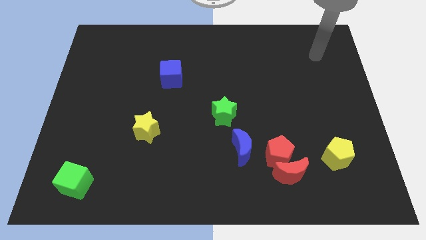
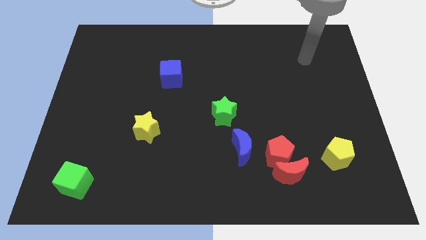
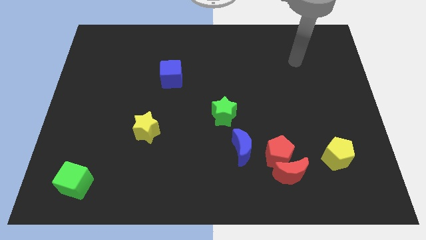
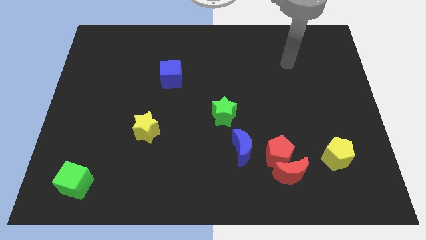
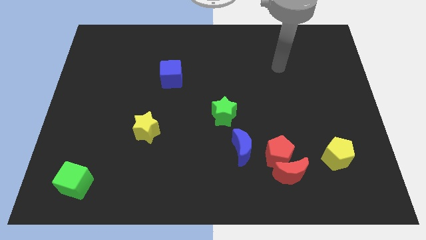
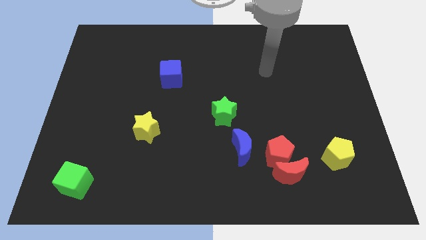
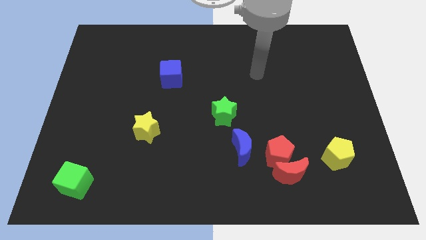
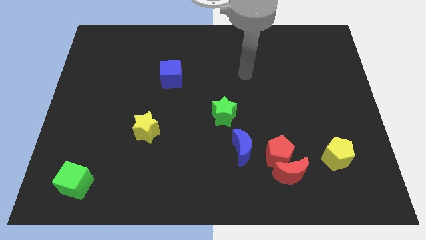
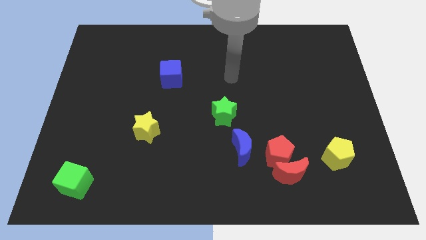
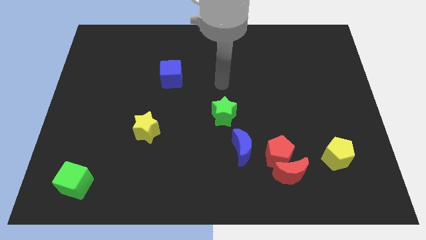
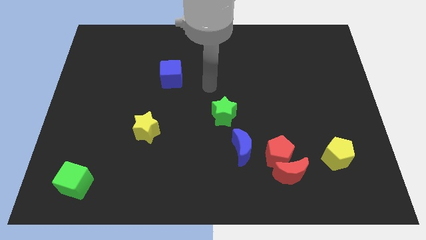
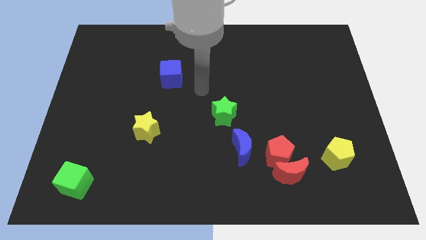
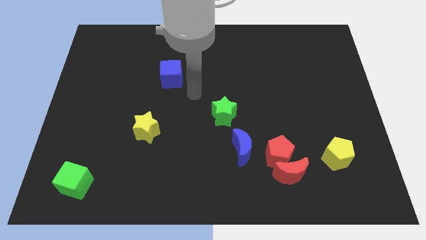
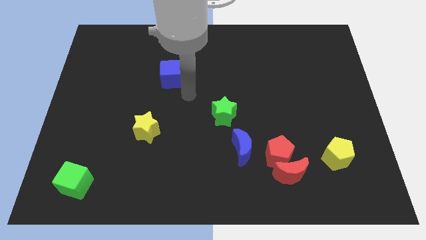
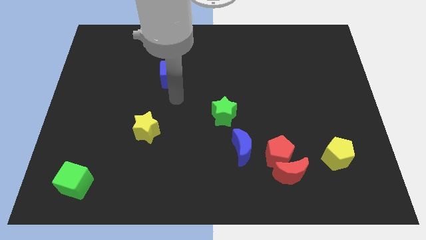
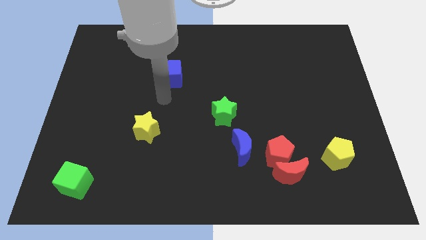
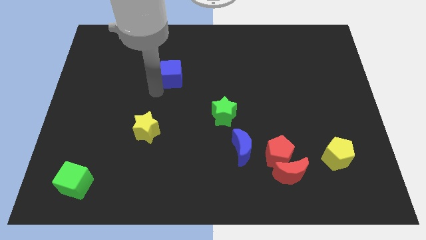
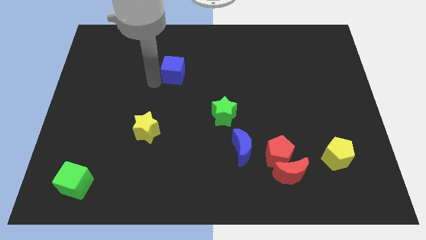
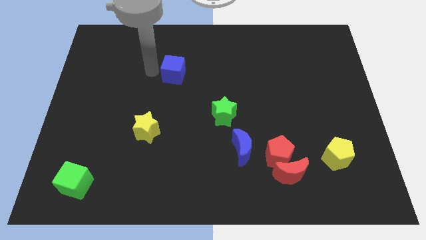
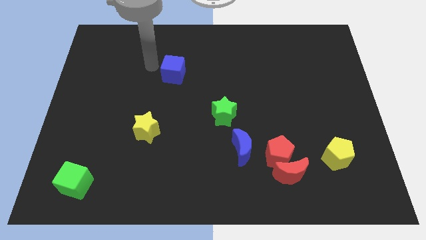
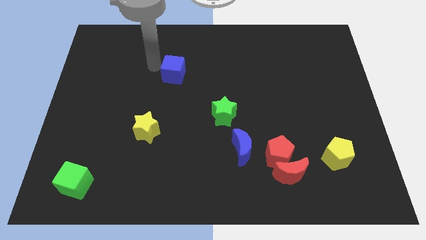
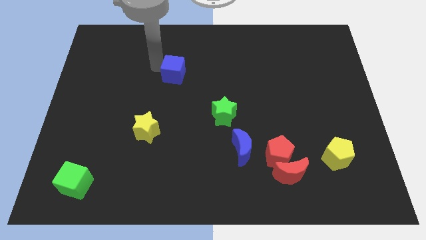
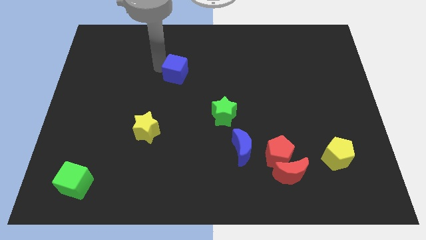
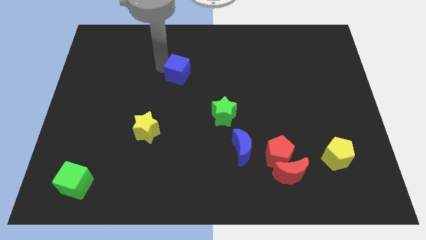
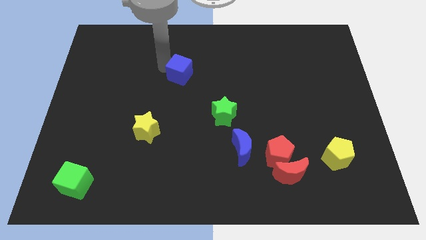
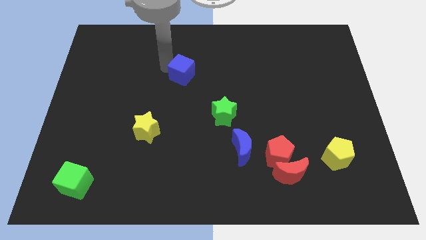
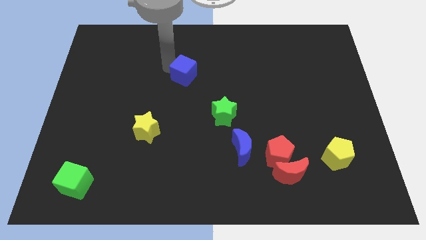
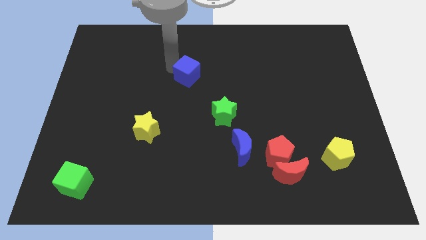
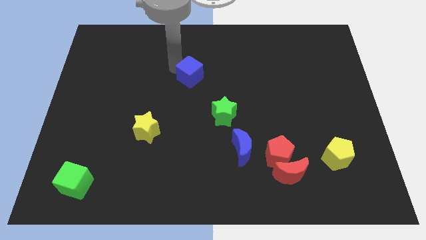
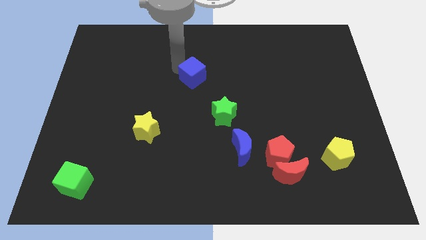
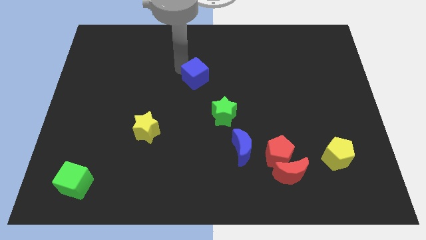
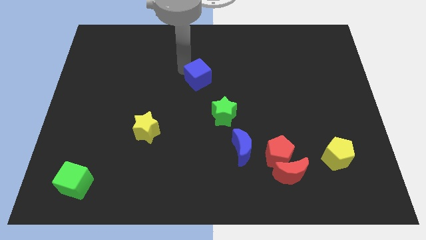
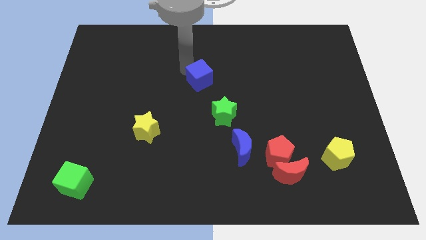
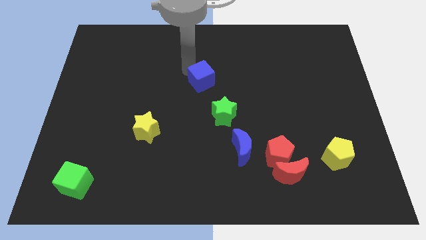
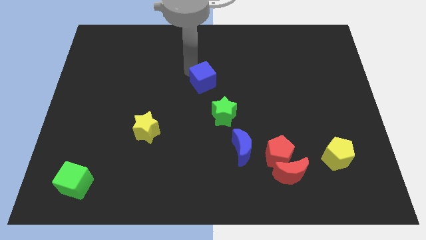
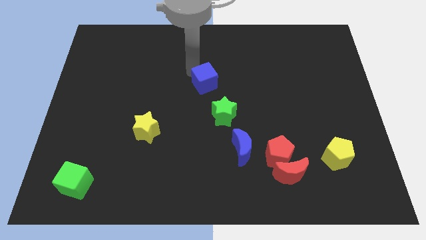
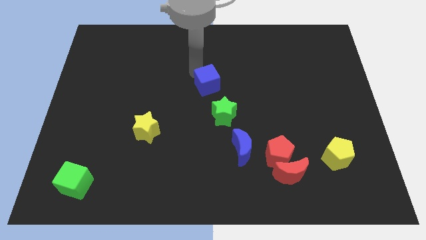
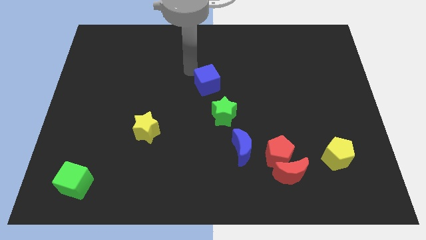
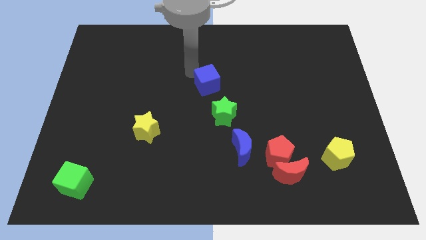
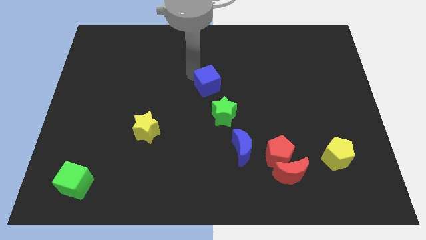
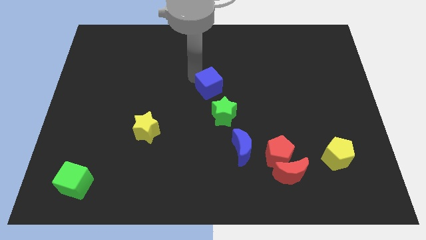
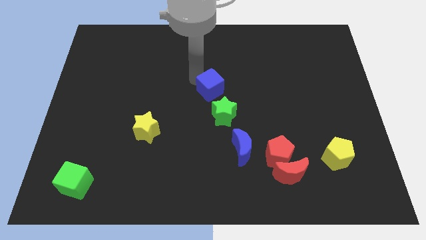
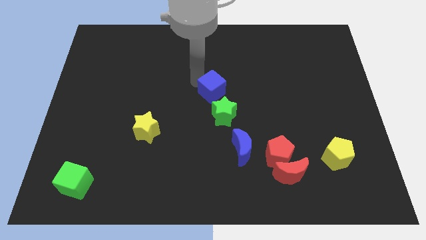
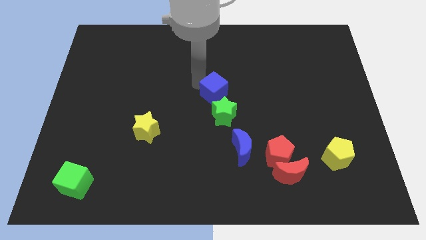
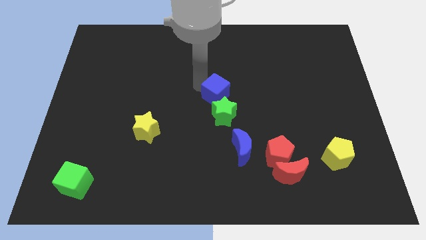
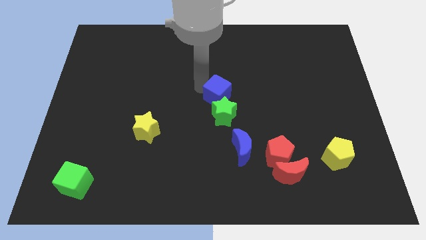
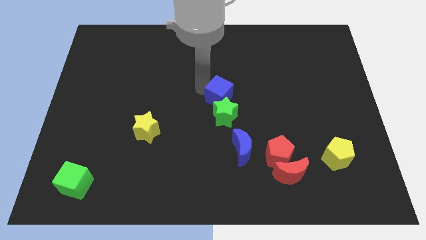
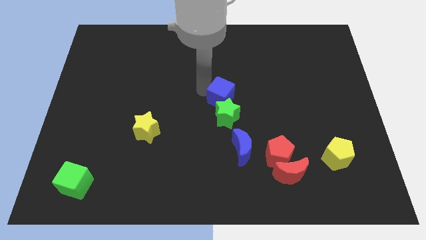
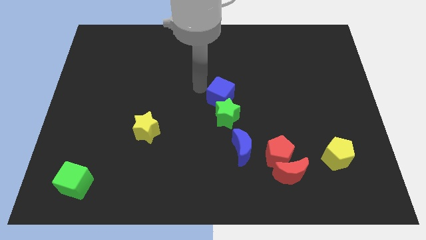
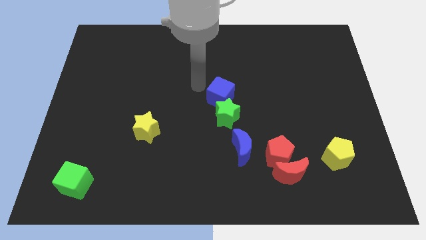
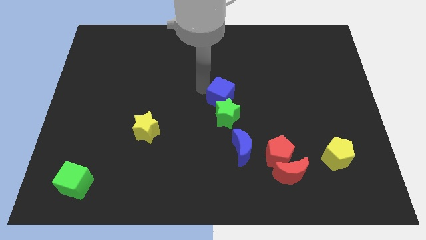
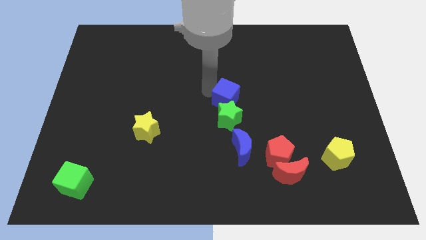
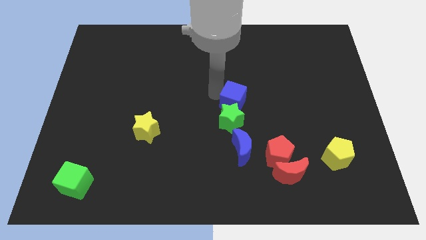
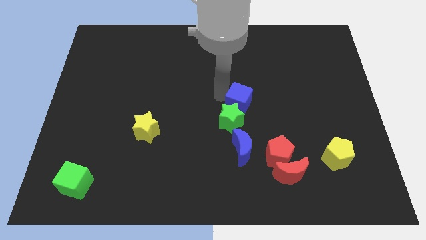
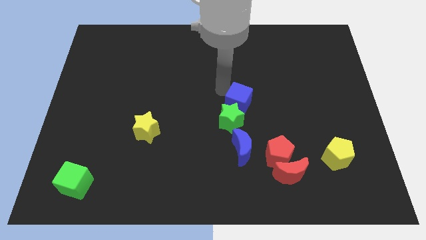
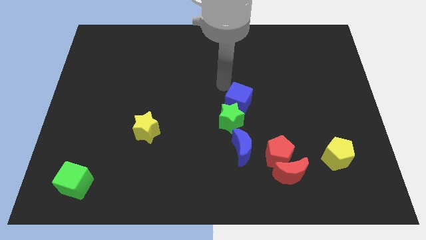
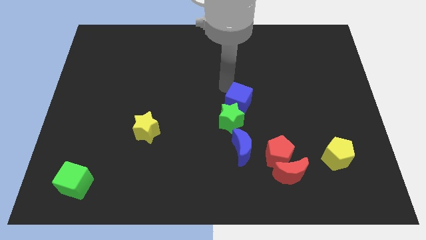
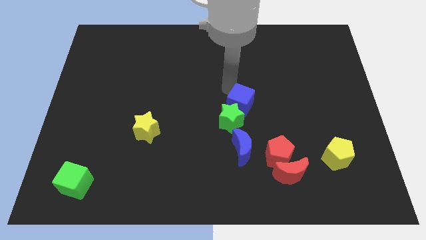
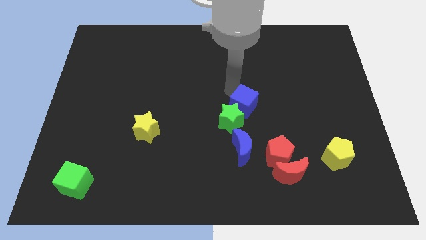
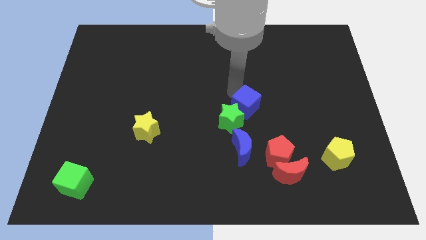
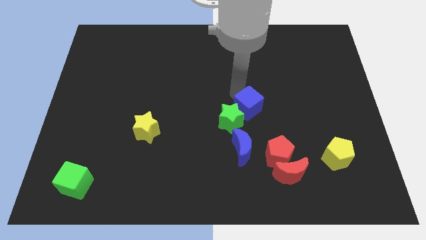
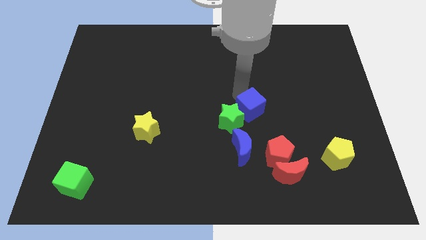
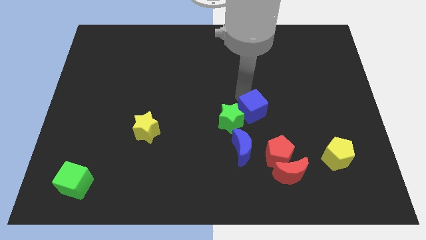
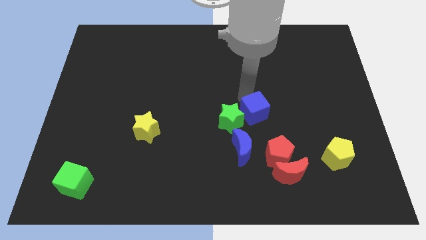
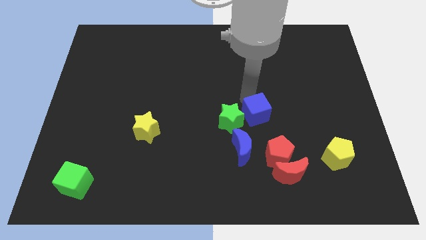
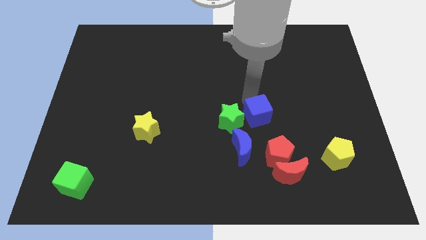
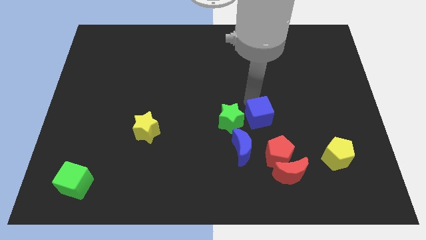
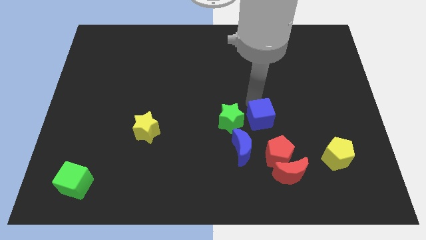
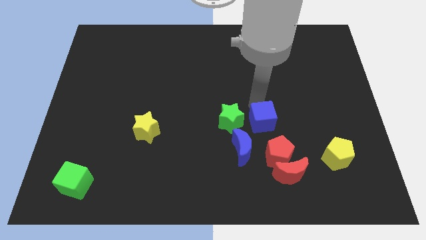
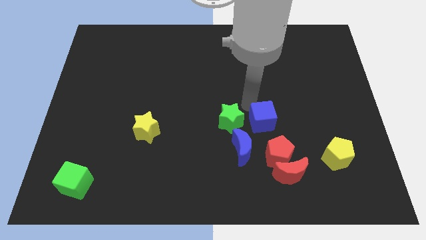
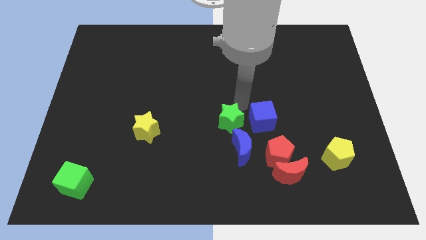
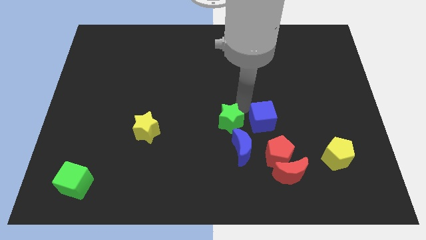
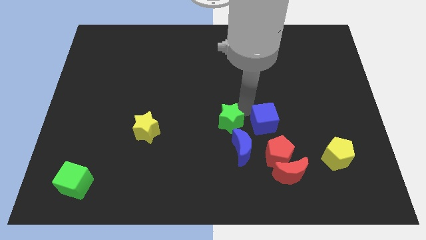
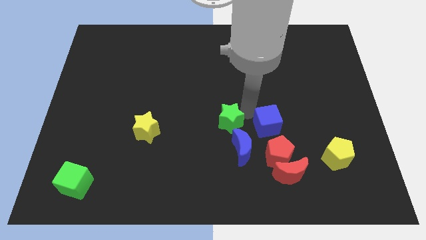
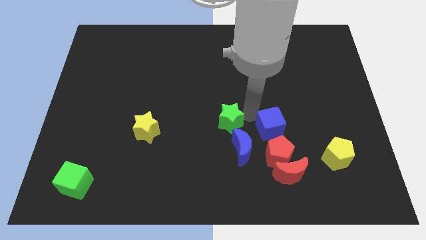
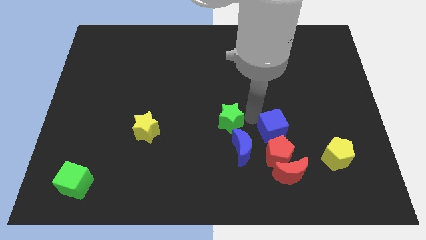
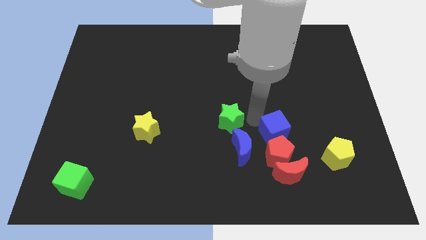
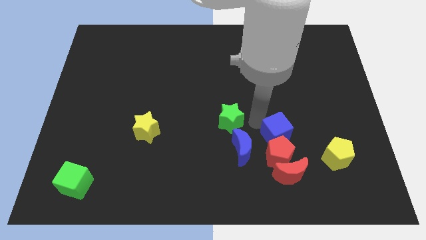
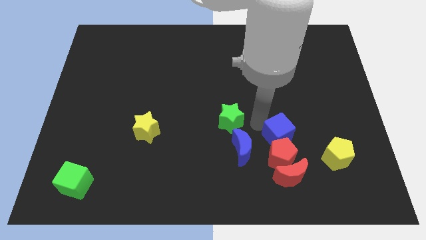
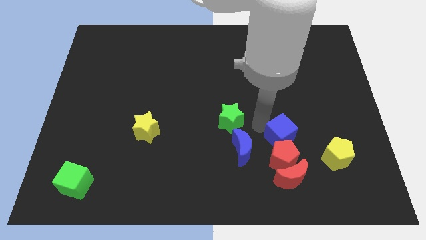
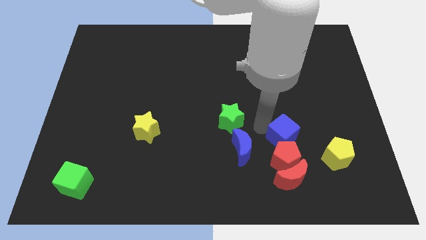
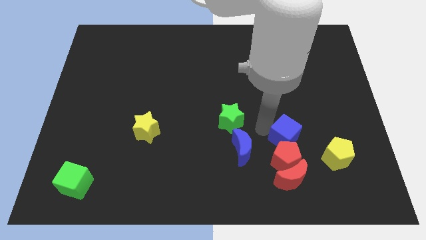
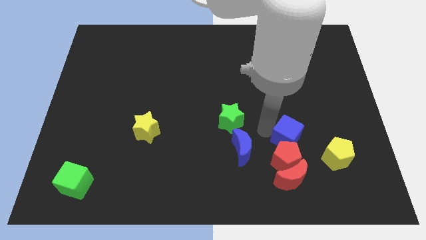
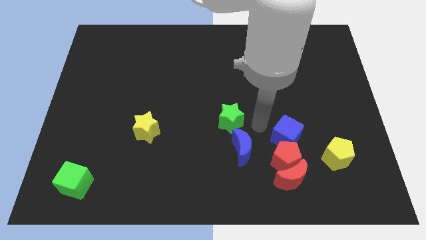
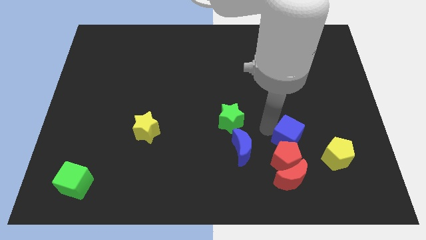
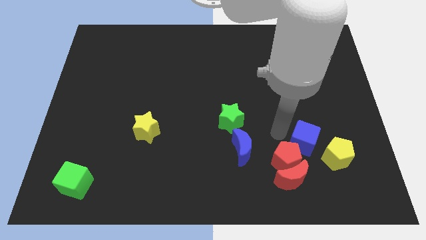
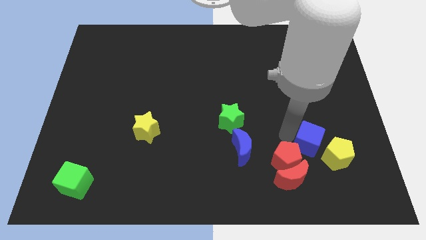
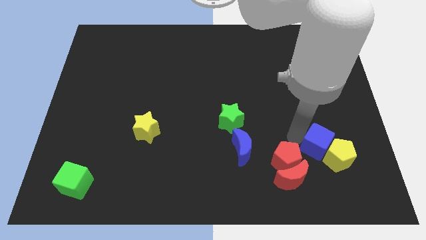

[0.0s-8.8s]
move the blue cube towards the yellow pentagon
